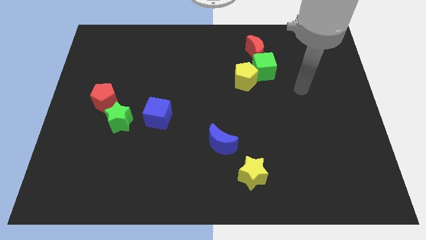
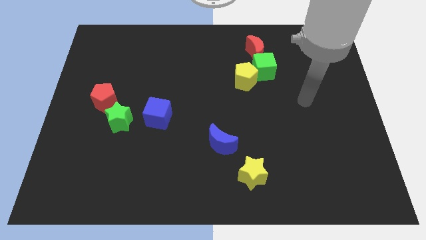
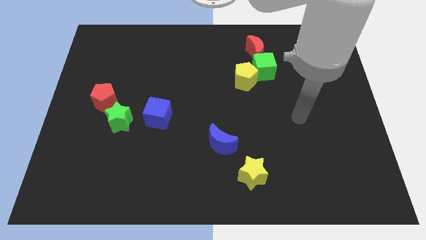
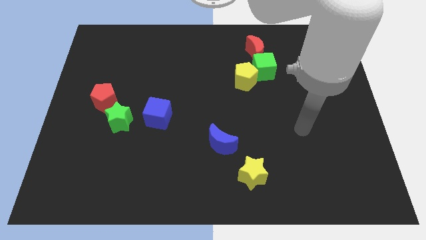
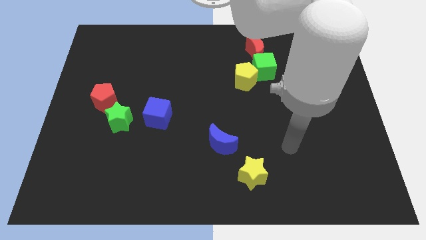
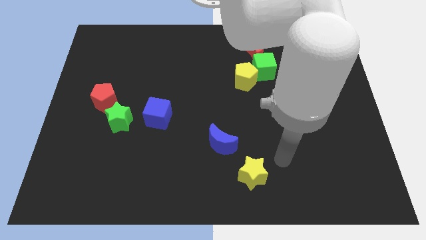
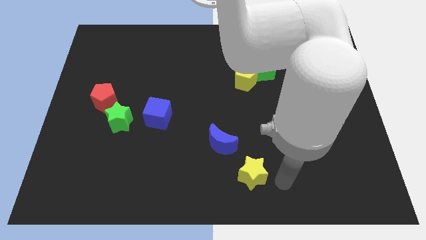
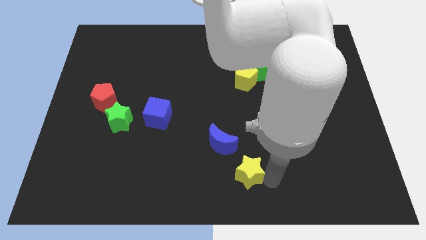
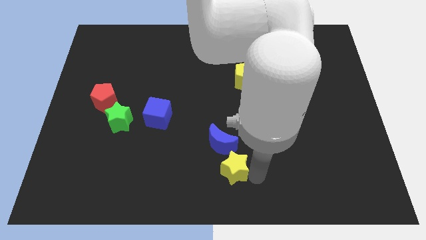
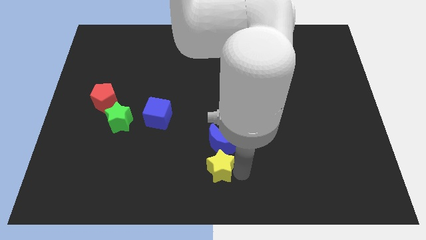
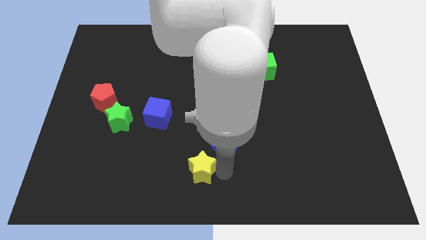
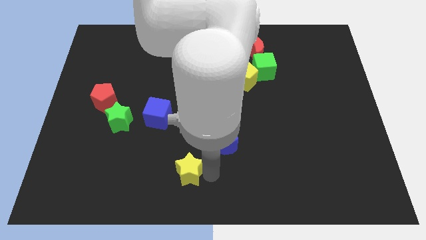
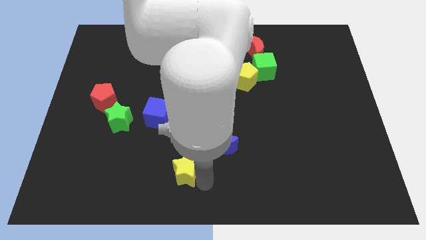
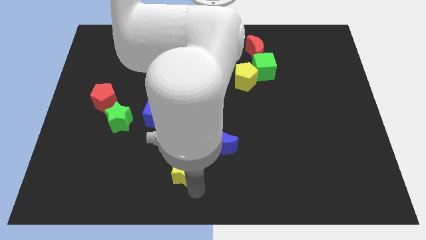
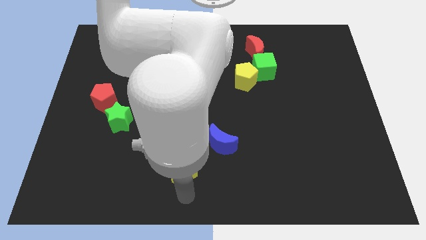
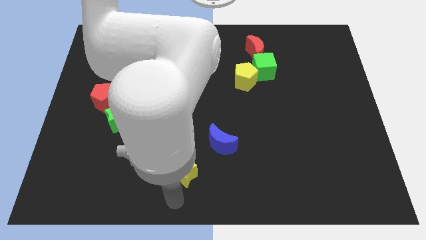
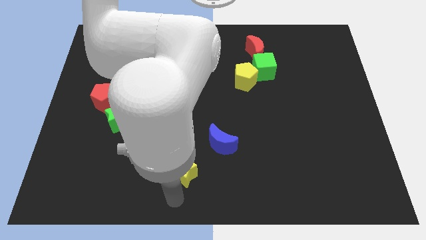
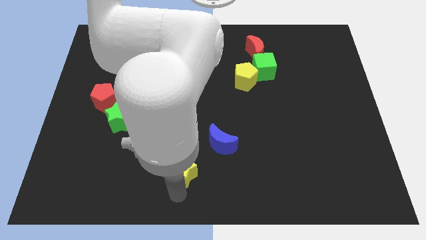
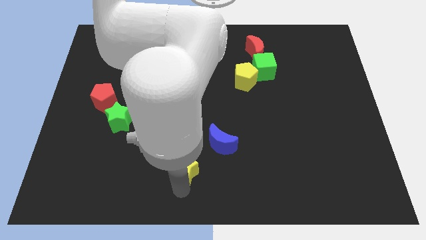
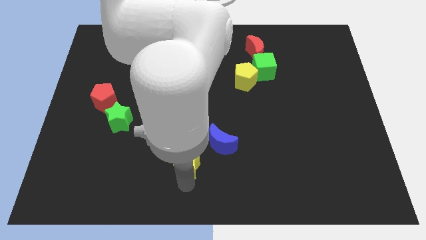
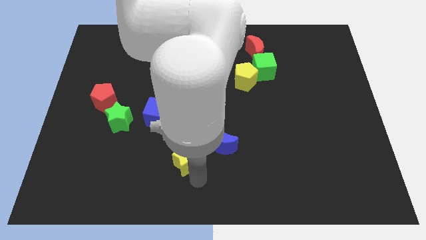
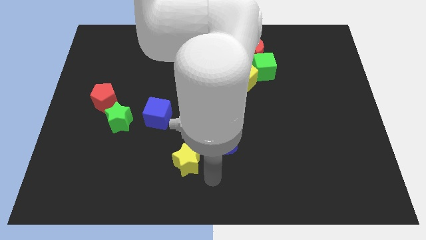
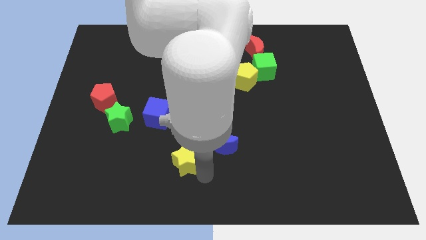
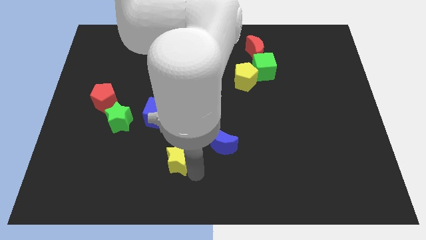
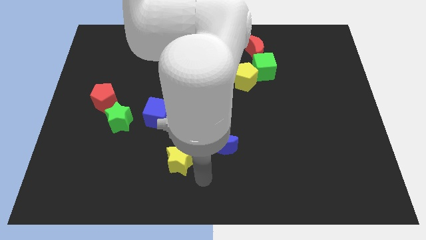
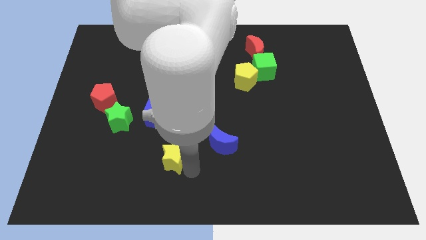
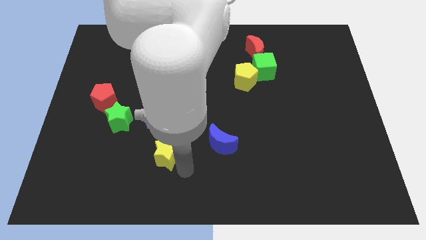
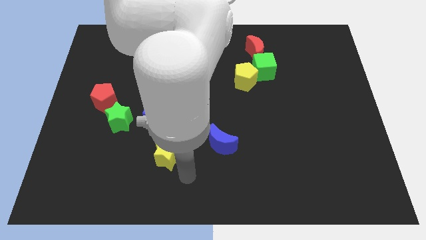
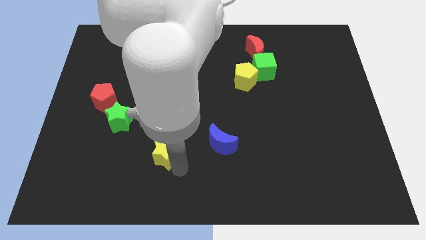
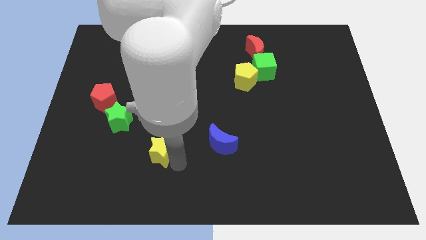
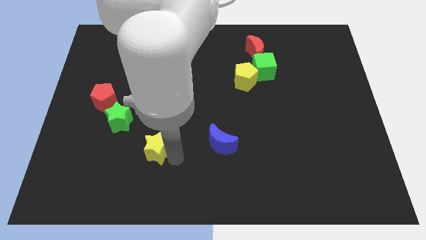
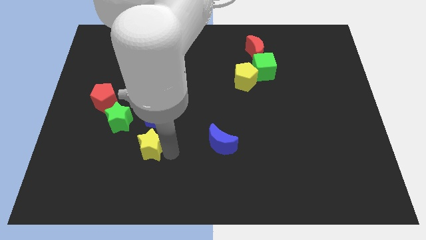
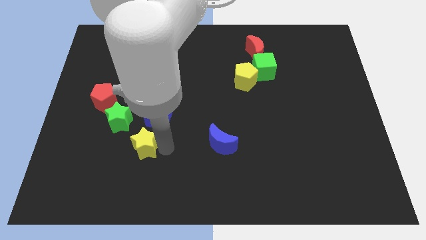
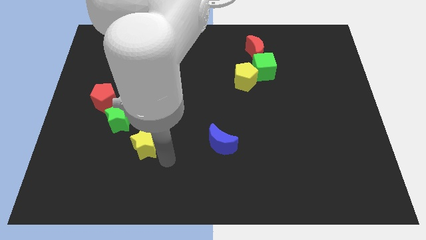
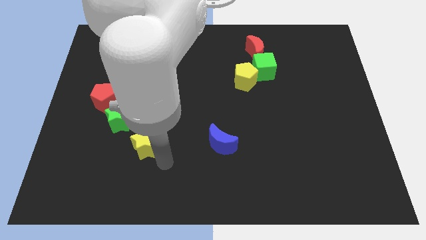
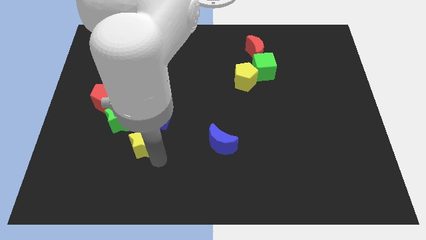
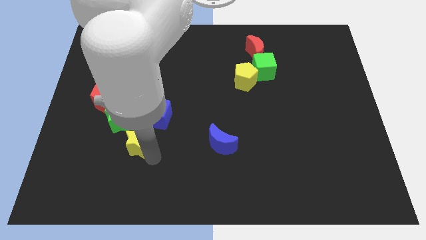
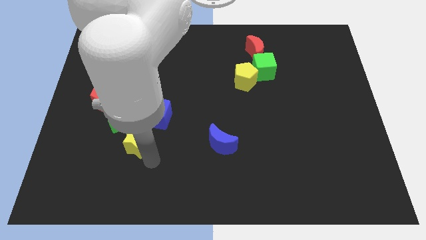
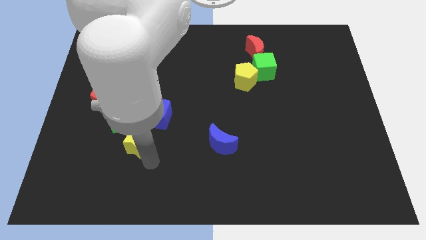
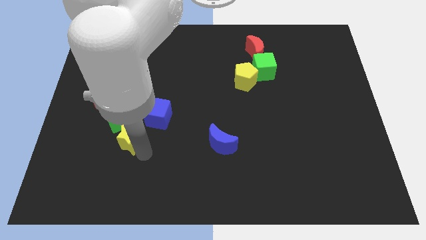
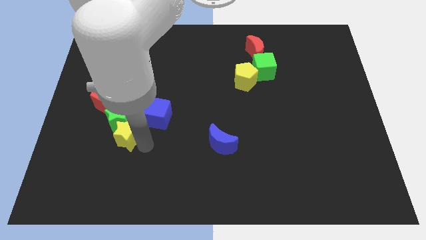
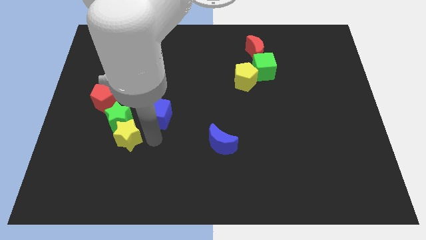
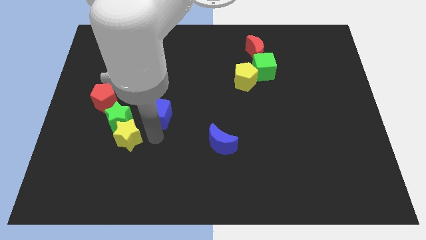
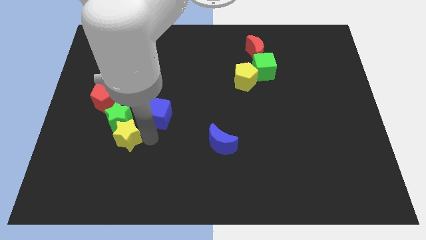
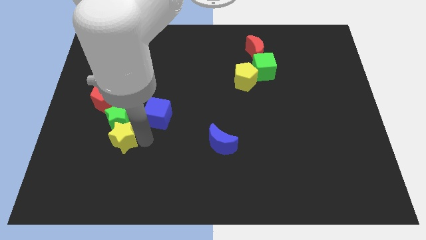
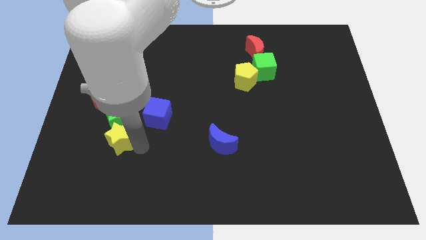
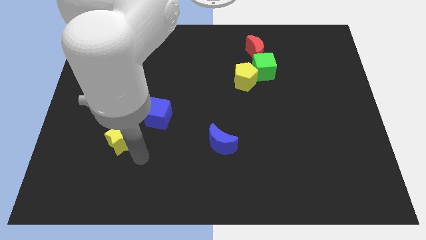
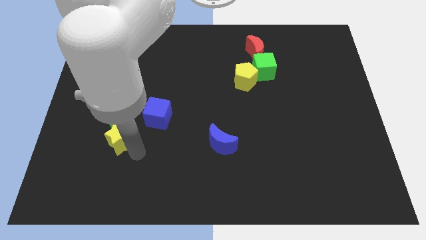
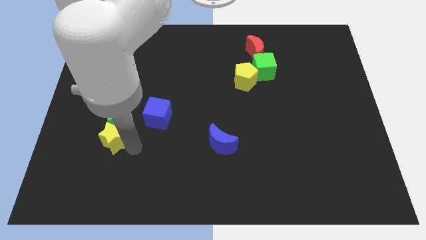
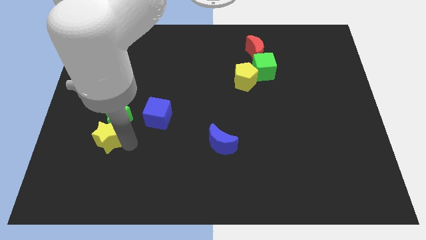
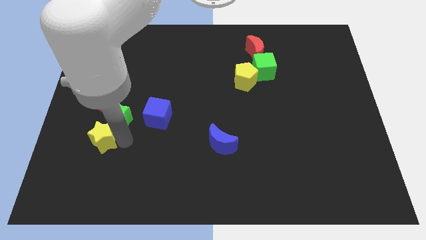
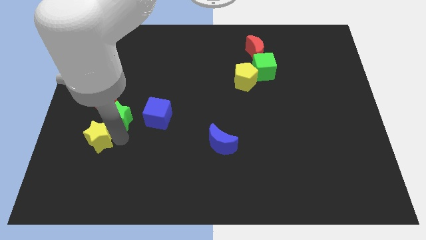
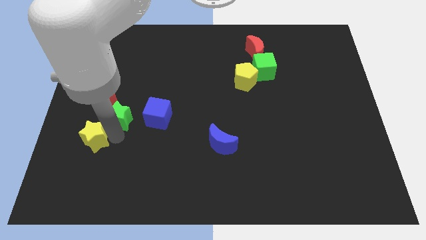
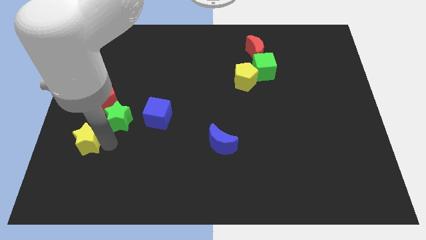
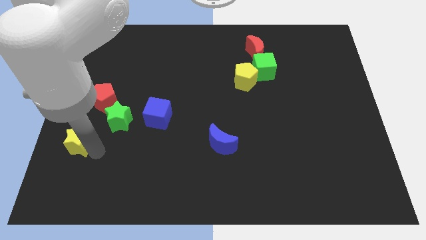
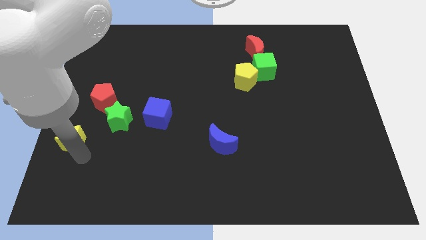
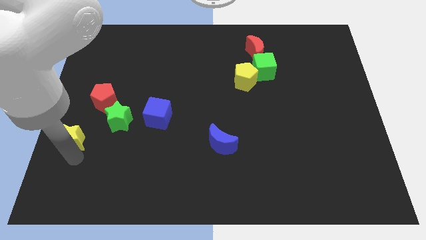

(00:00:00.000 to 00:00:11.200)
move the yellow star to the left side of the board
